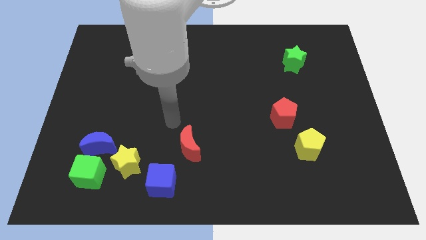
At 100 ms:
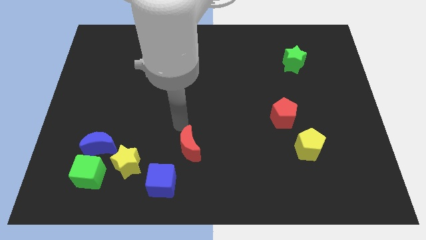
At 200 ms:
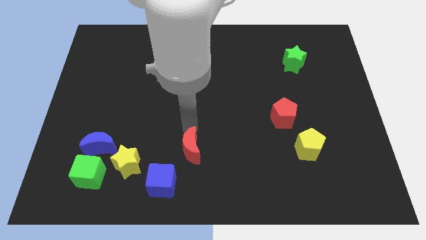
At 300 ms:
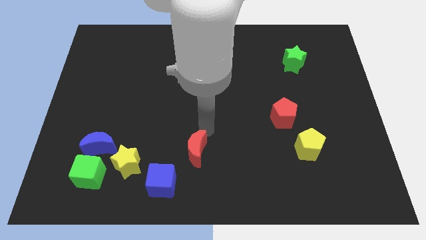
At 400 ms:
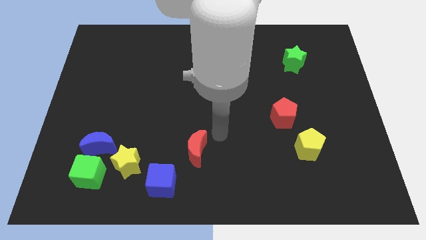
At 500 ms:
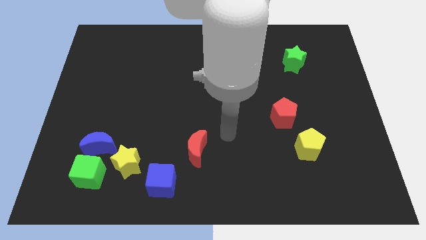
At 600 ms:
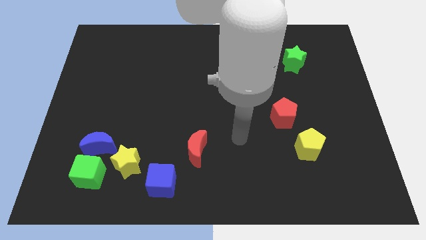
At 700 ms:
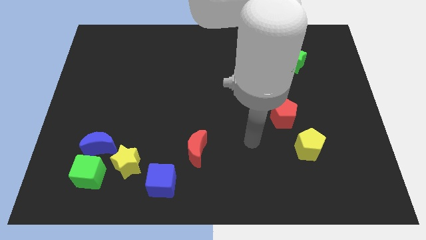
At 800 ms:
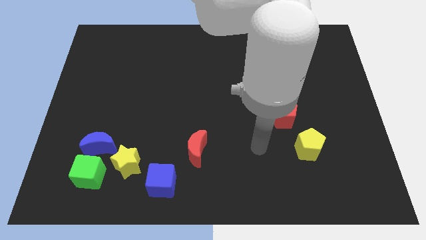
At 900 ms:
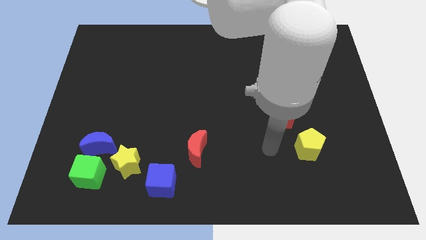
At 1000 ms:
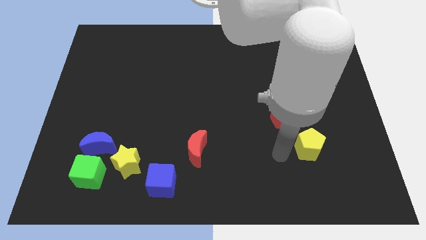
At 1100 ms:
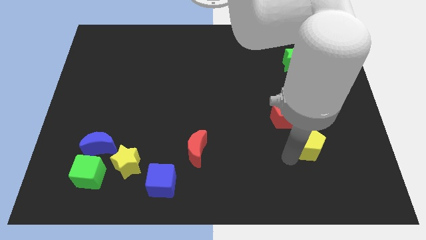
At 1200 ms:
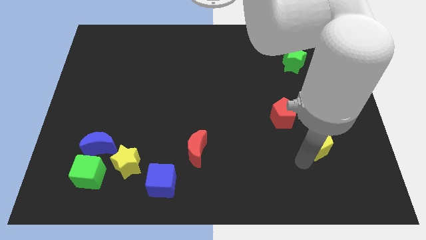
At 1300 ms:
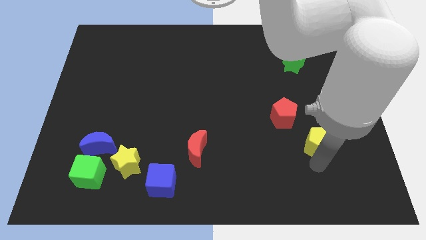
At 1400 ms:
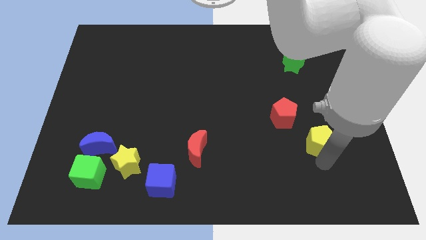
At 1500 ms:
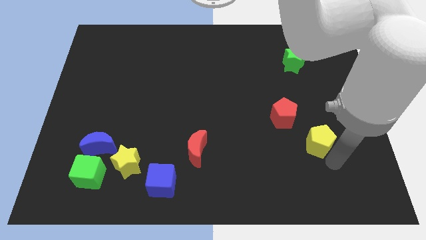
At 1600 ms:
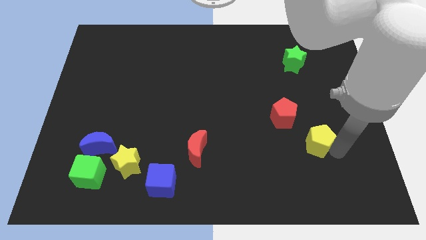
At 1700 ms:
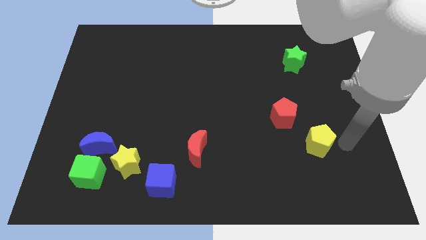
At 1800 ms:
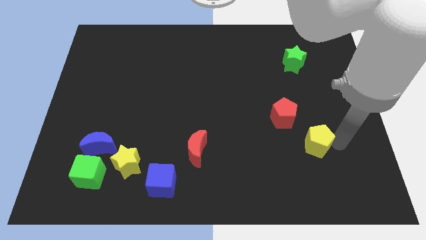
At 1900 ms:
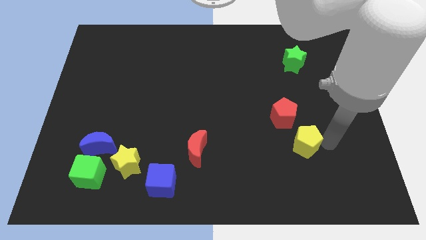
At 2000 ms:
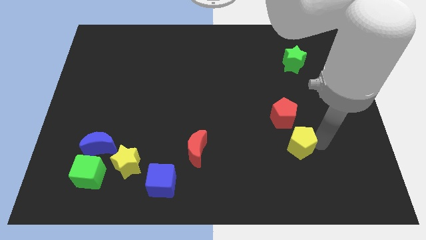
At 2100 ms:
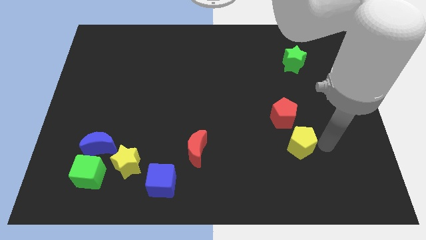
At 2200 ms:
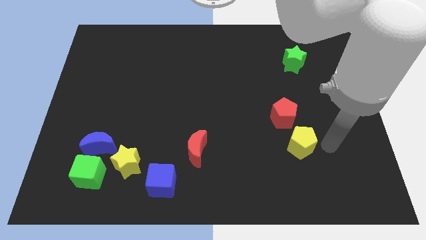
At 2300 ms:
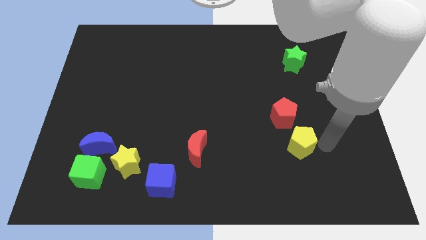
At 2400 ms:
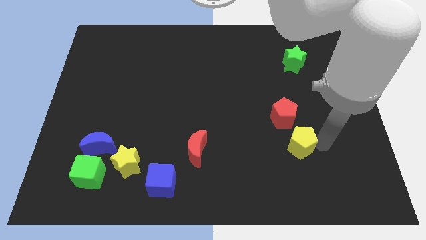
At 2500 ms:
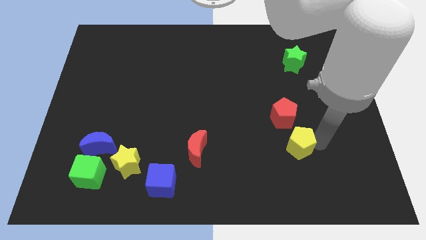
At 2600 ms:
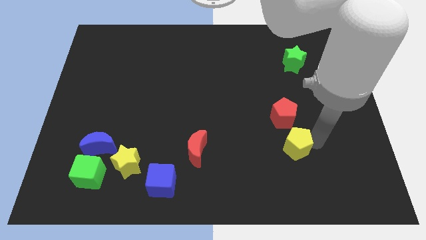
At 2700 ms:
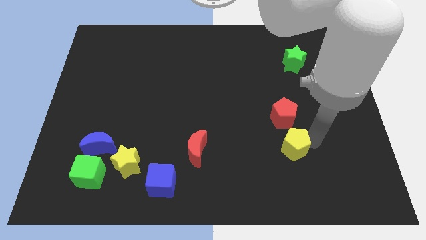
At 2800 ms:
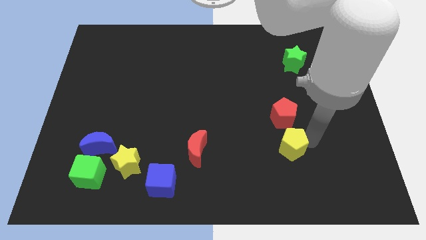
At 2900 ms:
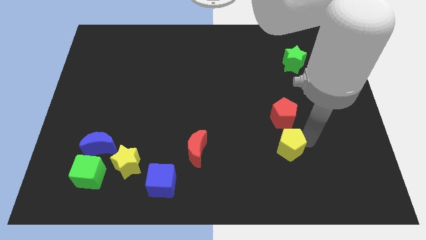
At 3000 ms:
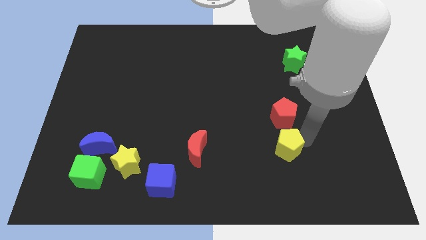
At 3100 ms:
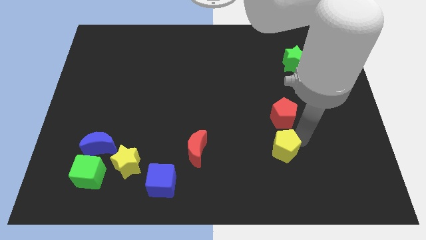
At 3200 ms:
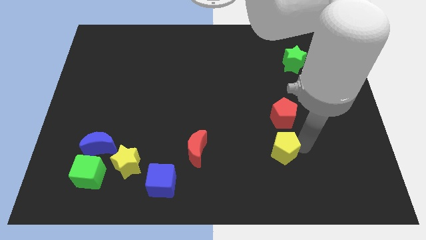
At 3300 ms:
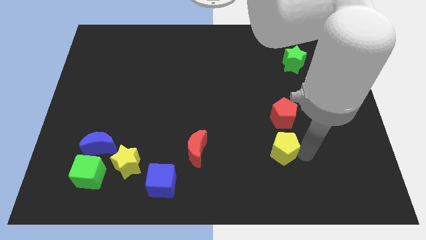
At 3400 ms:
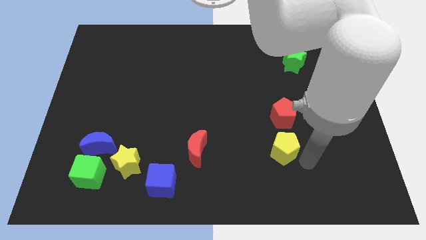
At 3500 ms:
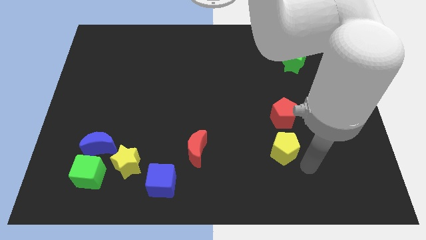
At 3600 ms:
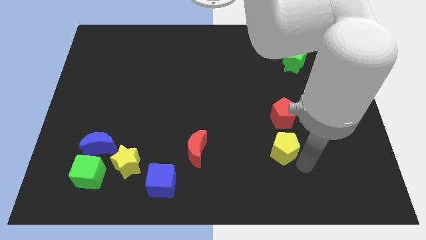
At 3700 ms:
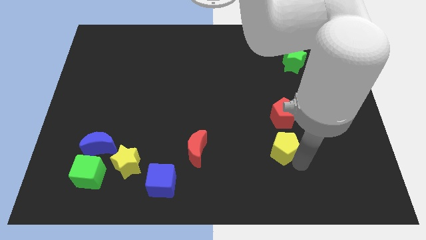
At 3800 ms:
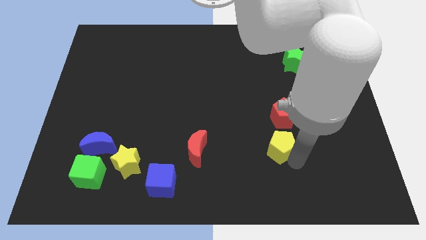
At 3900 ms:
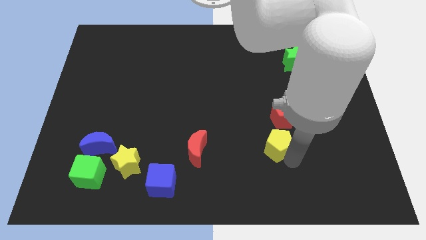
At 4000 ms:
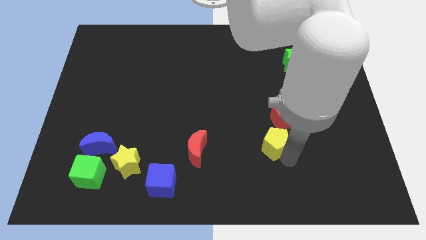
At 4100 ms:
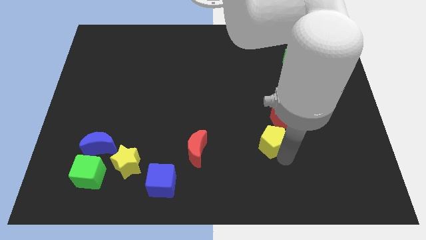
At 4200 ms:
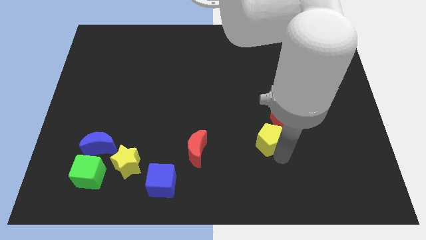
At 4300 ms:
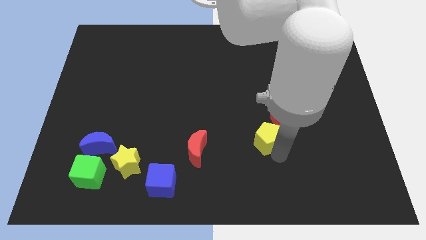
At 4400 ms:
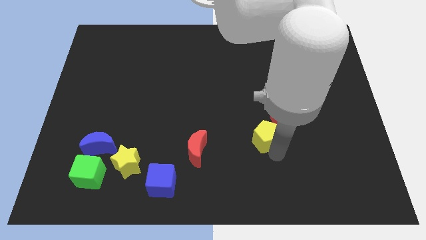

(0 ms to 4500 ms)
push the yellow pentagon upwards and to the left a little bit

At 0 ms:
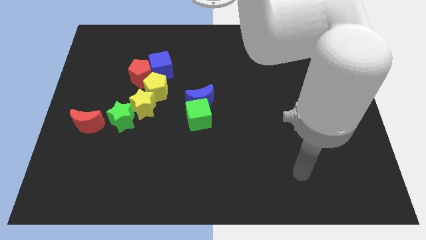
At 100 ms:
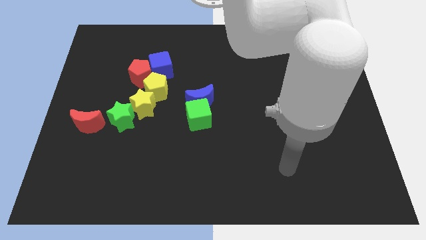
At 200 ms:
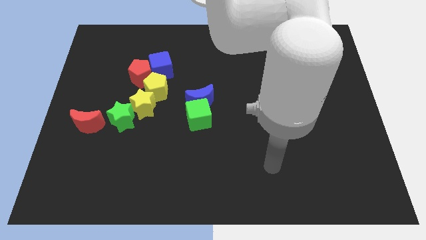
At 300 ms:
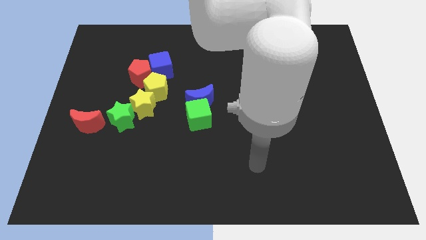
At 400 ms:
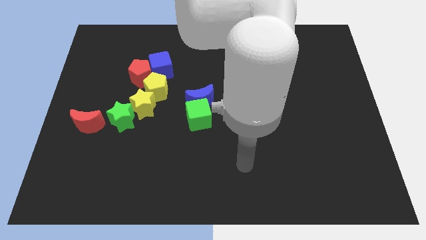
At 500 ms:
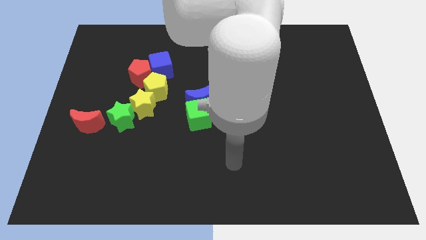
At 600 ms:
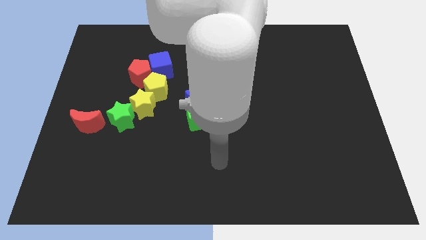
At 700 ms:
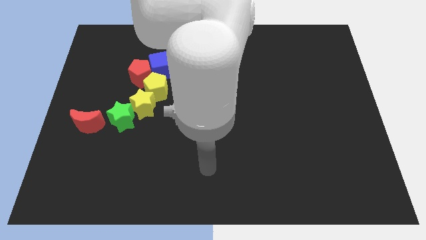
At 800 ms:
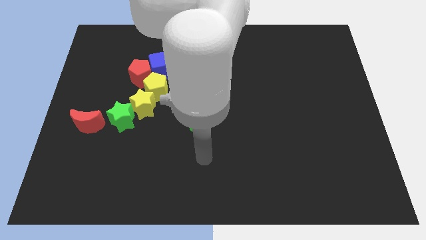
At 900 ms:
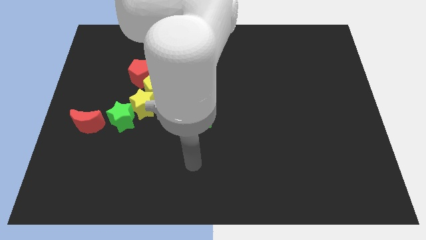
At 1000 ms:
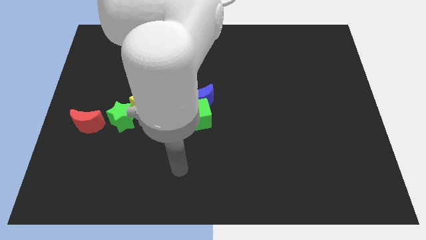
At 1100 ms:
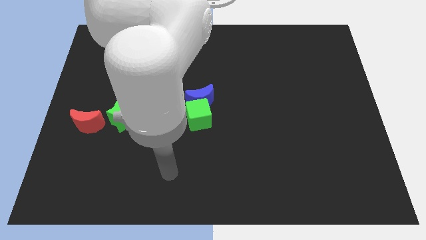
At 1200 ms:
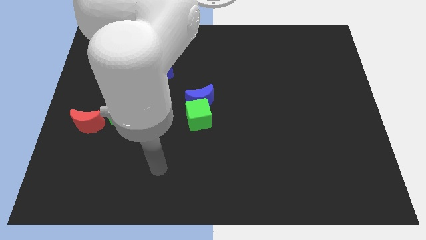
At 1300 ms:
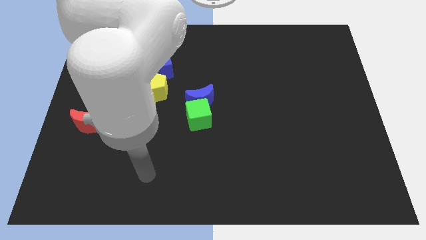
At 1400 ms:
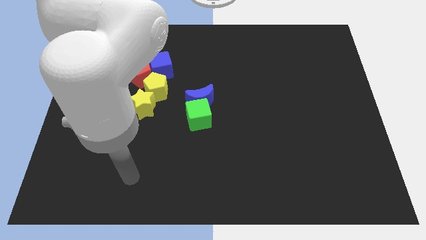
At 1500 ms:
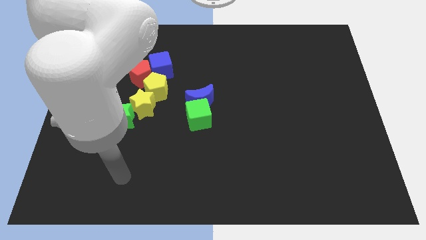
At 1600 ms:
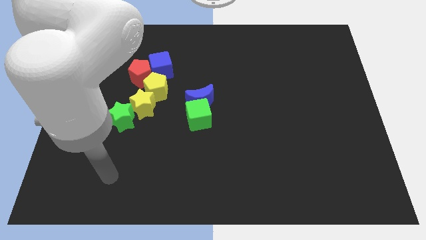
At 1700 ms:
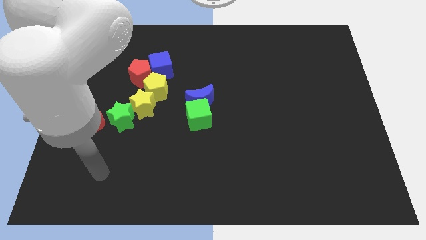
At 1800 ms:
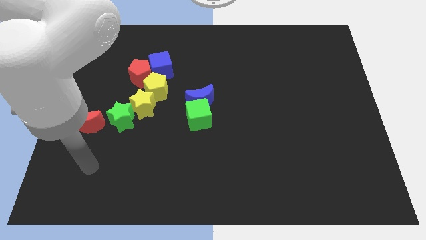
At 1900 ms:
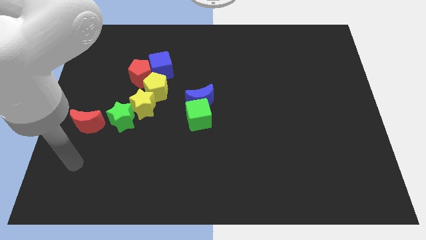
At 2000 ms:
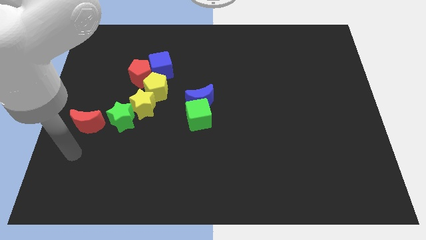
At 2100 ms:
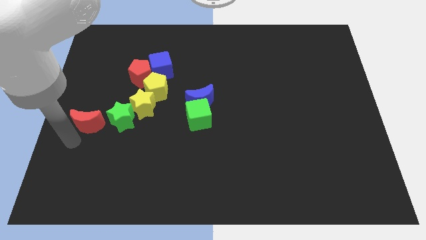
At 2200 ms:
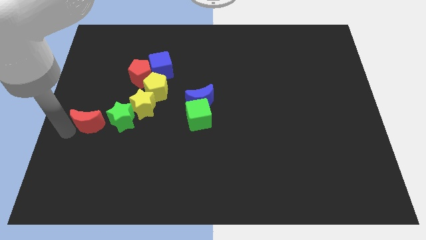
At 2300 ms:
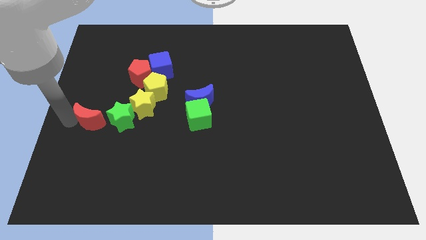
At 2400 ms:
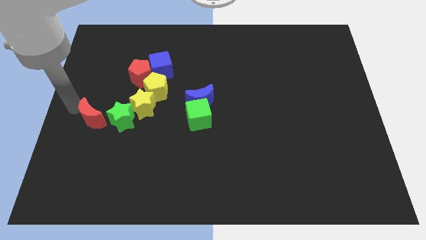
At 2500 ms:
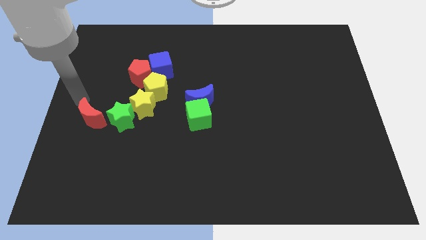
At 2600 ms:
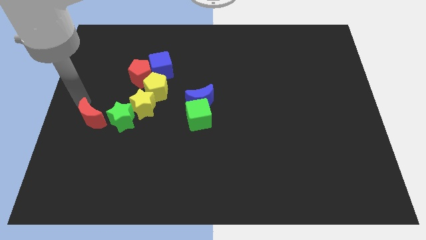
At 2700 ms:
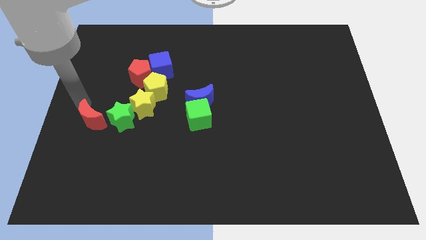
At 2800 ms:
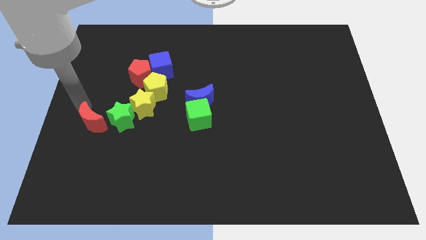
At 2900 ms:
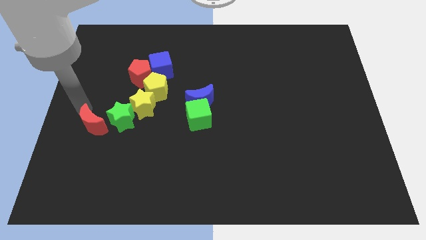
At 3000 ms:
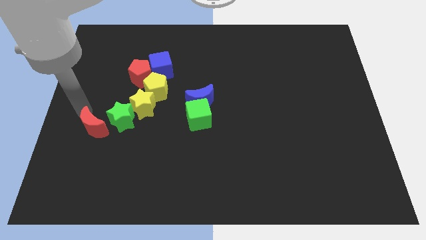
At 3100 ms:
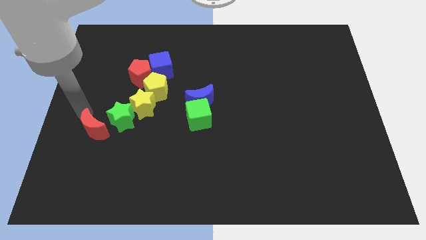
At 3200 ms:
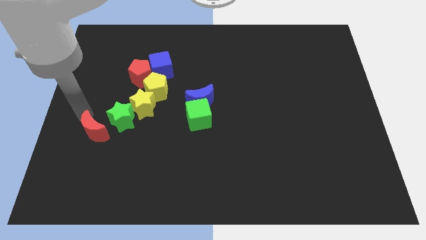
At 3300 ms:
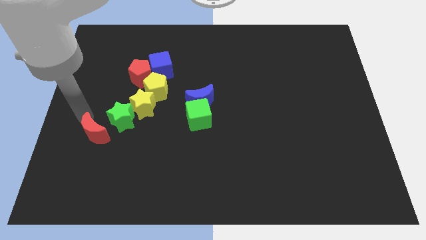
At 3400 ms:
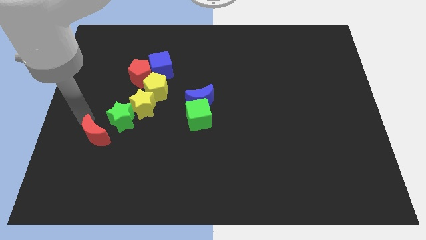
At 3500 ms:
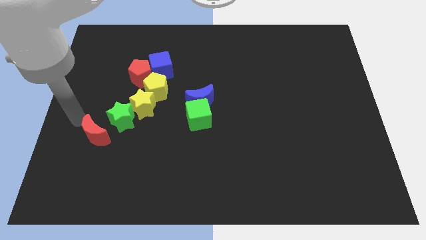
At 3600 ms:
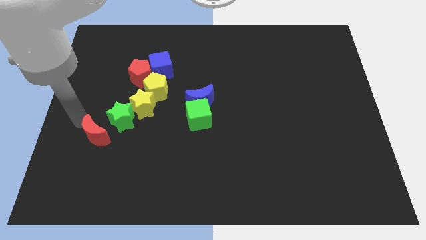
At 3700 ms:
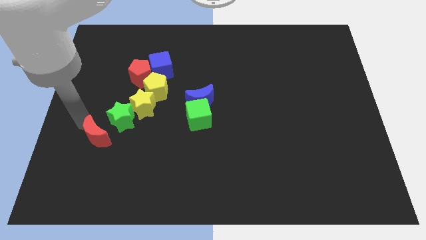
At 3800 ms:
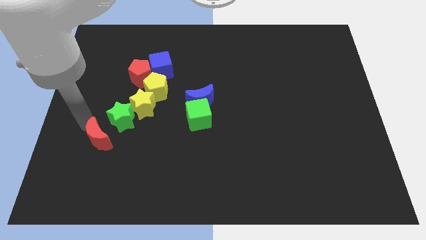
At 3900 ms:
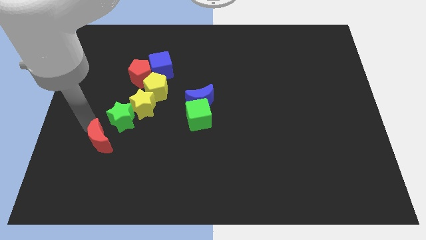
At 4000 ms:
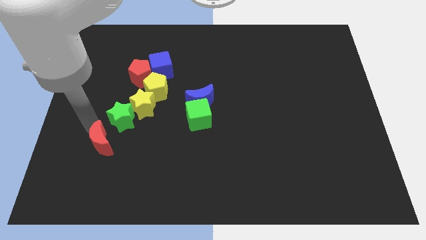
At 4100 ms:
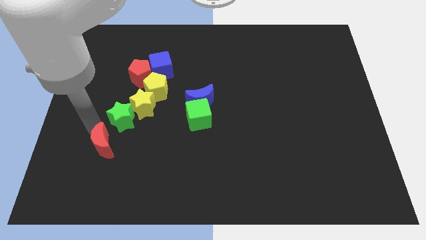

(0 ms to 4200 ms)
push the red moon diagonally down and to the right a little bit
